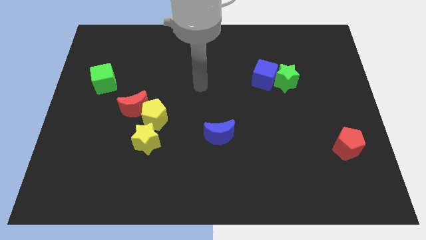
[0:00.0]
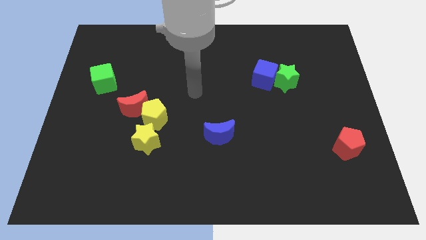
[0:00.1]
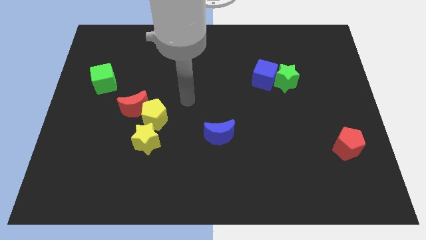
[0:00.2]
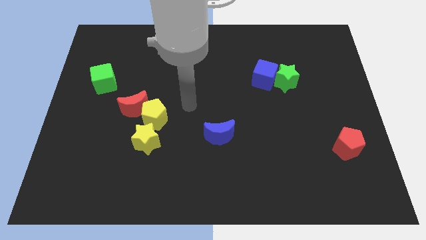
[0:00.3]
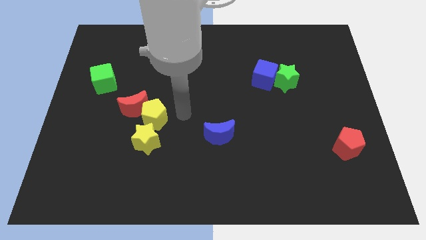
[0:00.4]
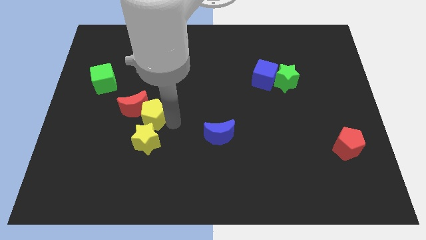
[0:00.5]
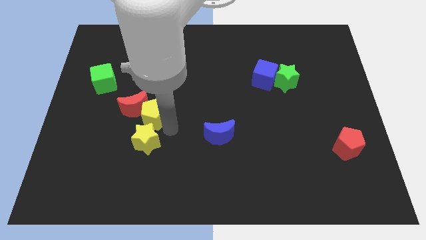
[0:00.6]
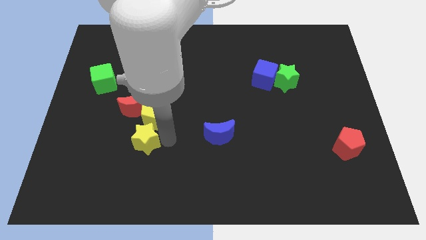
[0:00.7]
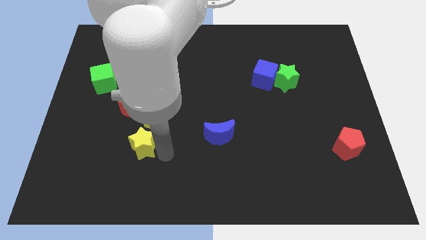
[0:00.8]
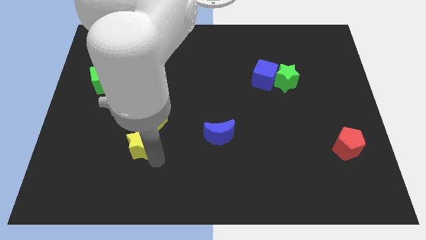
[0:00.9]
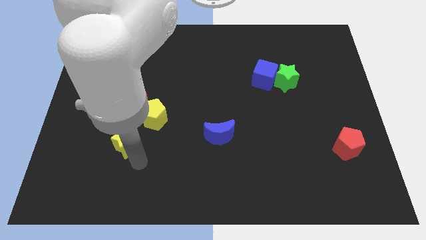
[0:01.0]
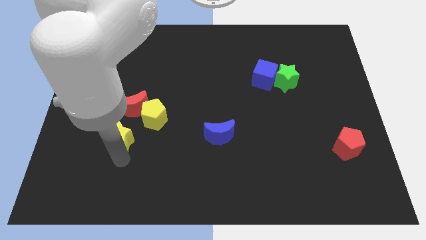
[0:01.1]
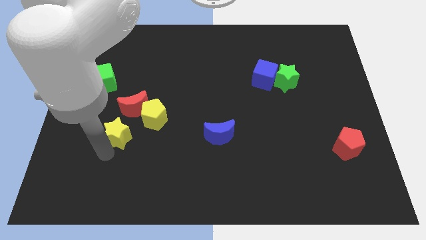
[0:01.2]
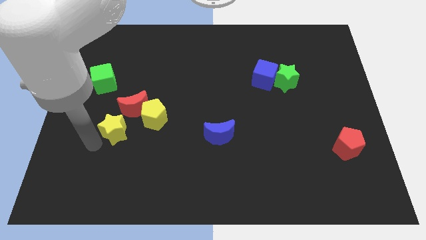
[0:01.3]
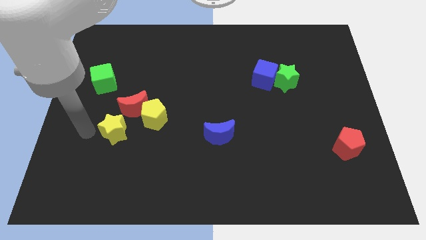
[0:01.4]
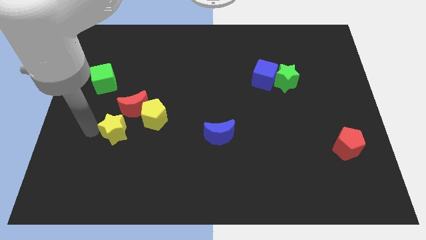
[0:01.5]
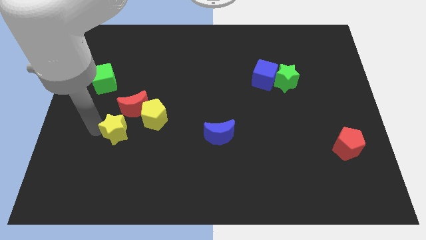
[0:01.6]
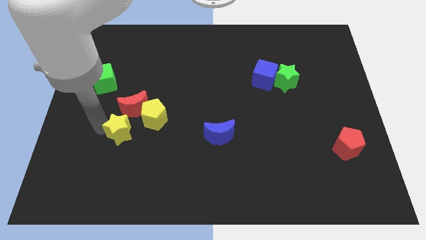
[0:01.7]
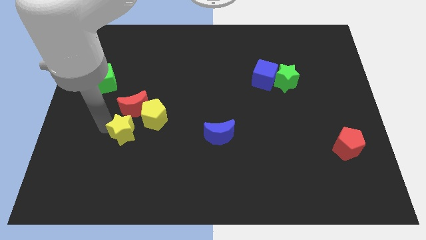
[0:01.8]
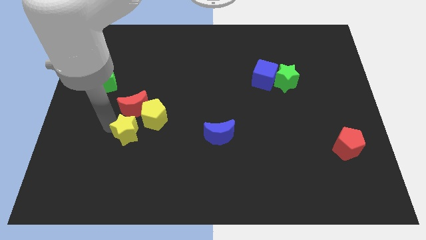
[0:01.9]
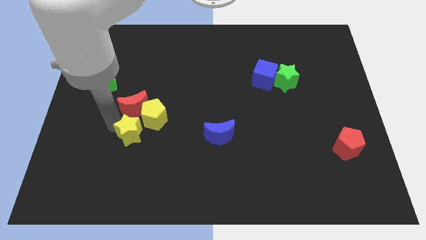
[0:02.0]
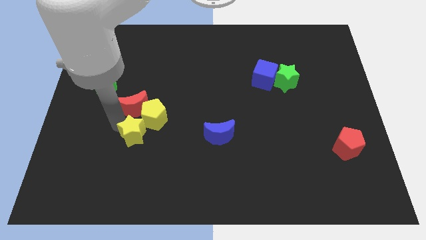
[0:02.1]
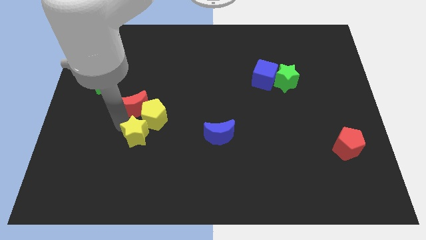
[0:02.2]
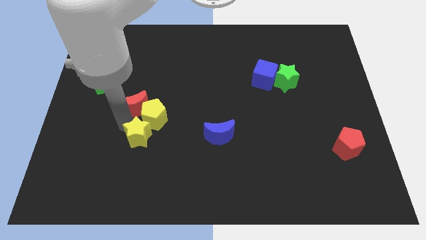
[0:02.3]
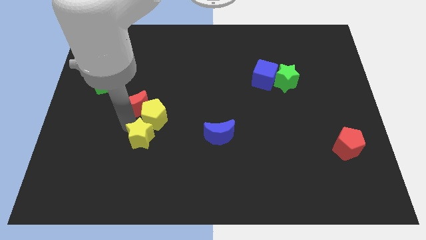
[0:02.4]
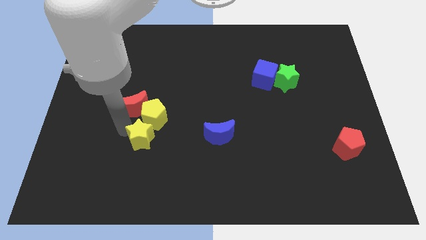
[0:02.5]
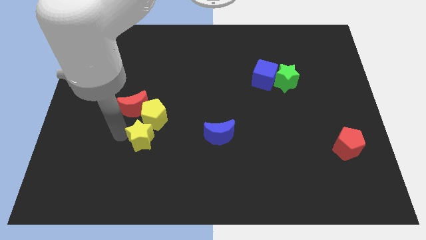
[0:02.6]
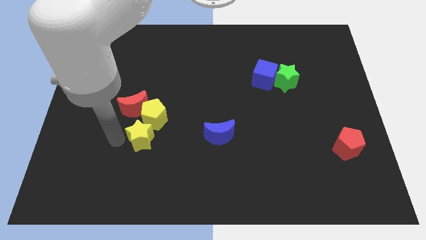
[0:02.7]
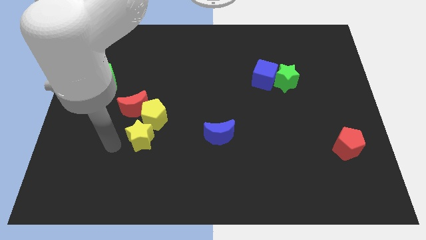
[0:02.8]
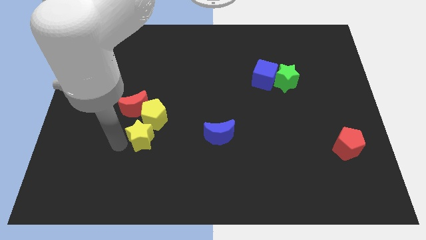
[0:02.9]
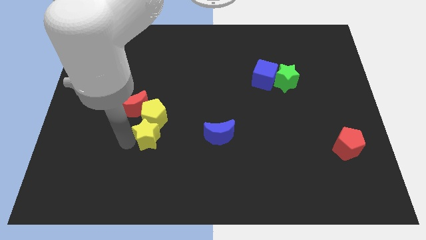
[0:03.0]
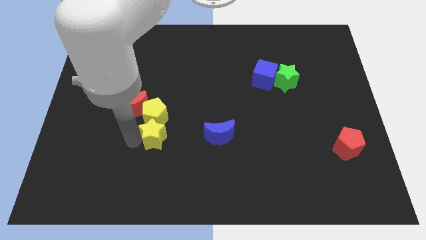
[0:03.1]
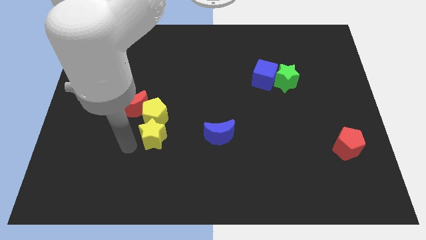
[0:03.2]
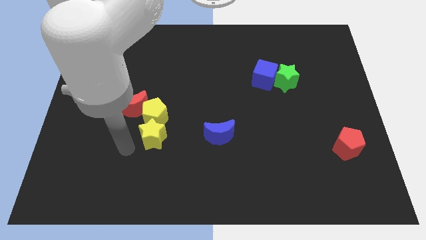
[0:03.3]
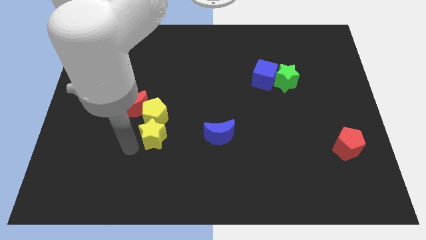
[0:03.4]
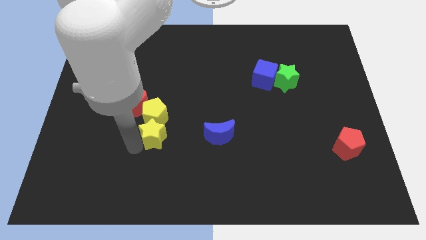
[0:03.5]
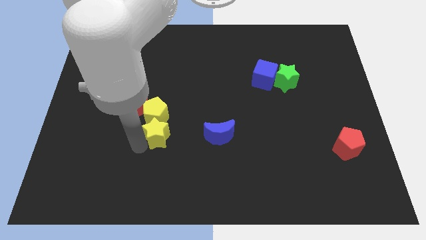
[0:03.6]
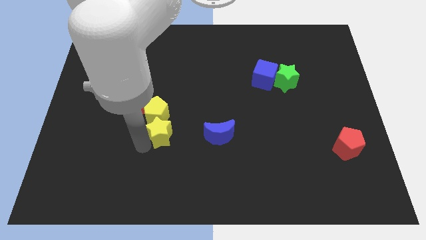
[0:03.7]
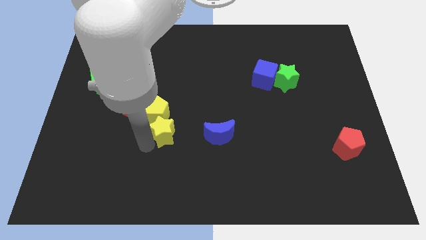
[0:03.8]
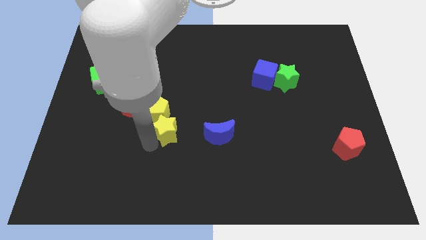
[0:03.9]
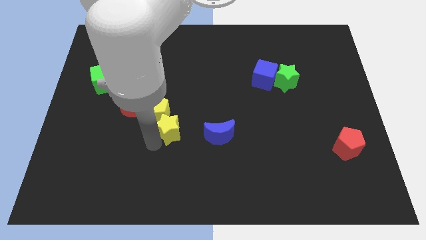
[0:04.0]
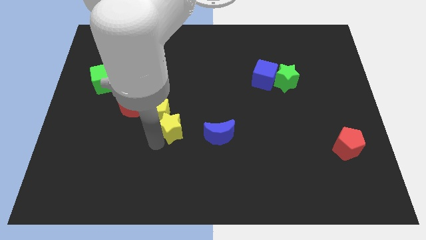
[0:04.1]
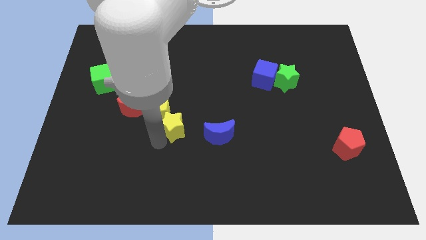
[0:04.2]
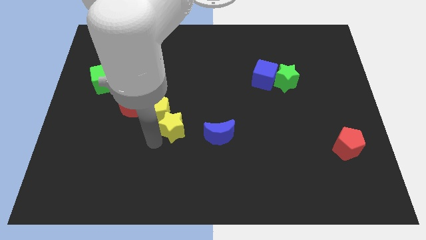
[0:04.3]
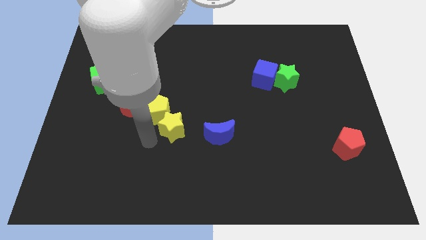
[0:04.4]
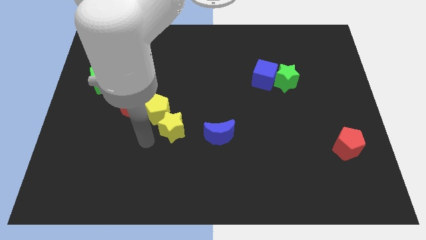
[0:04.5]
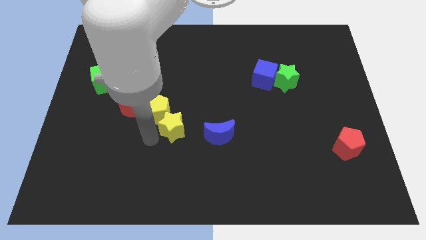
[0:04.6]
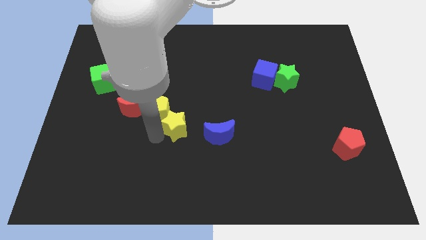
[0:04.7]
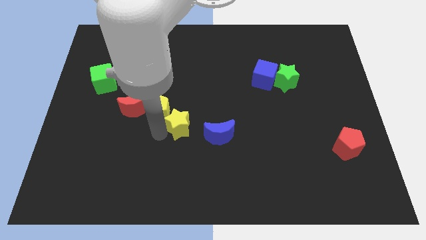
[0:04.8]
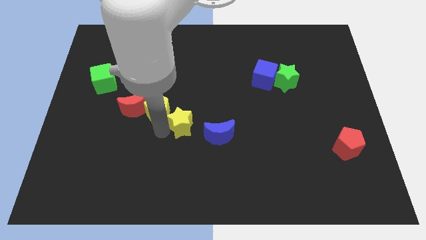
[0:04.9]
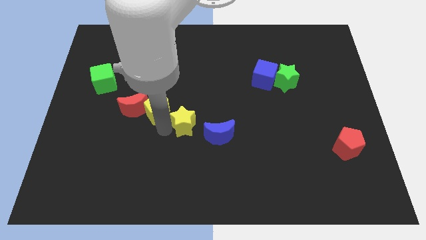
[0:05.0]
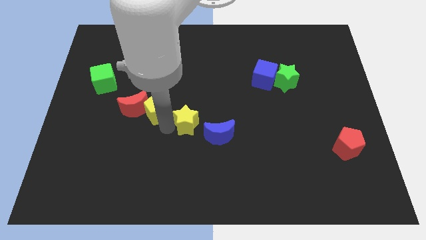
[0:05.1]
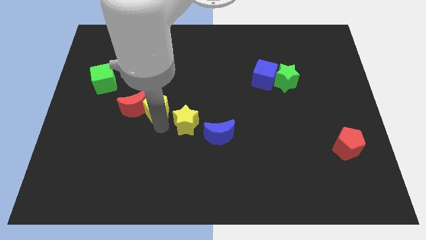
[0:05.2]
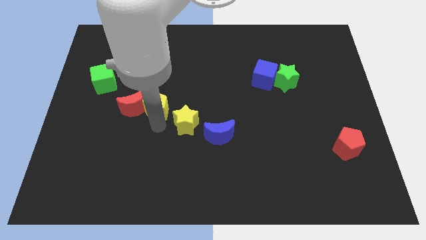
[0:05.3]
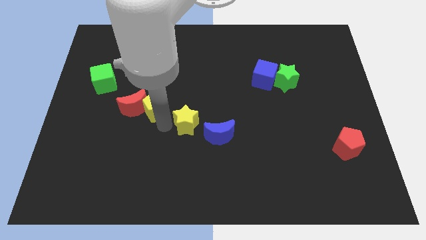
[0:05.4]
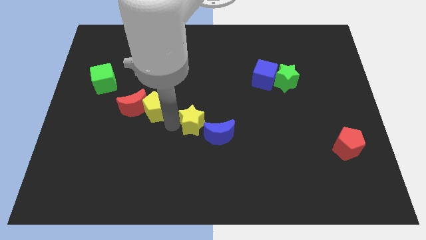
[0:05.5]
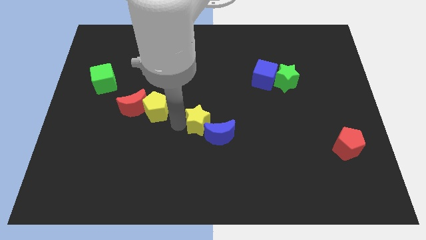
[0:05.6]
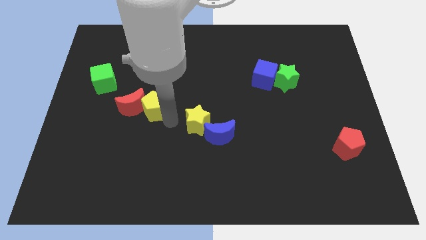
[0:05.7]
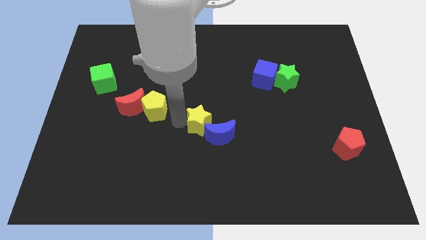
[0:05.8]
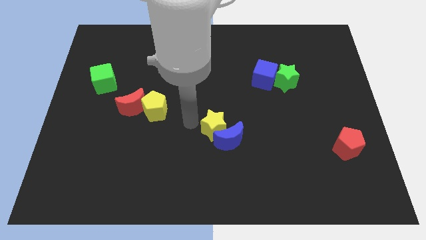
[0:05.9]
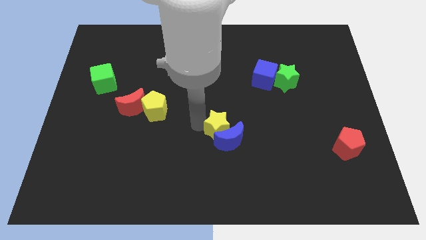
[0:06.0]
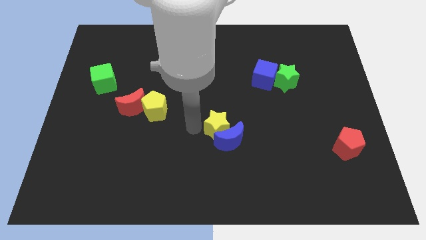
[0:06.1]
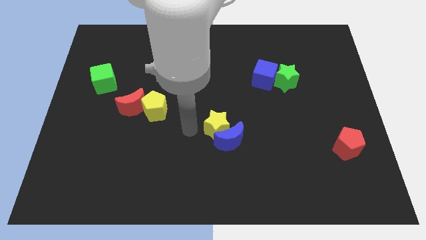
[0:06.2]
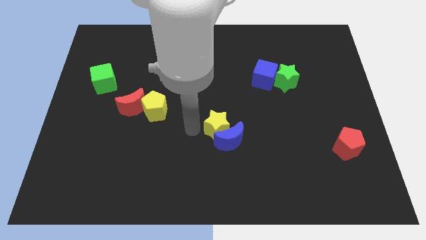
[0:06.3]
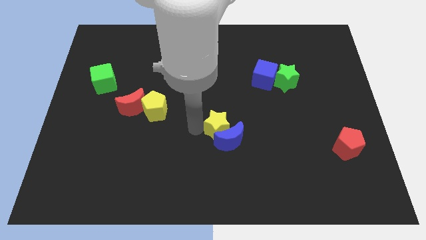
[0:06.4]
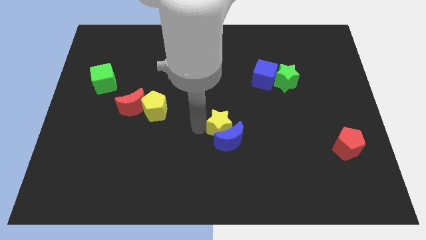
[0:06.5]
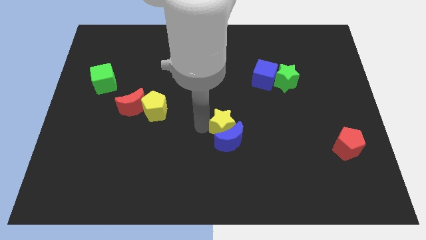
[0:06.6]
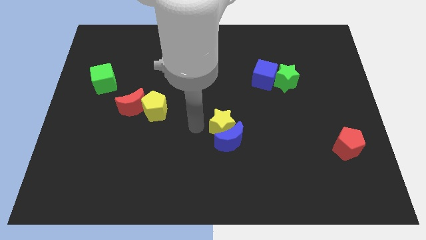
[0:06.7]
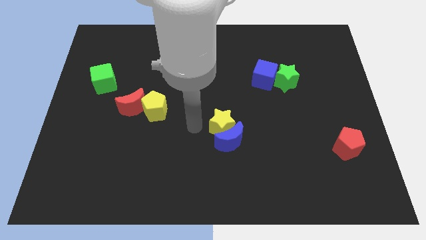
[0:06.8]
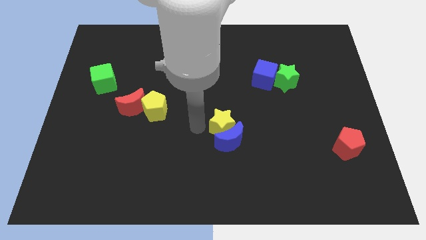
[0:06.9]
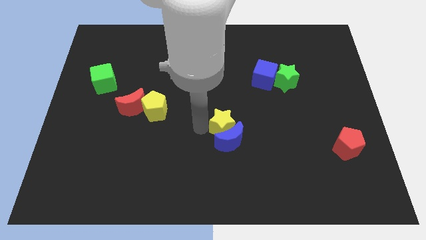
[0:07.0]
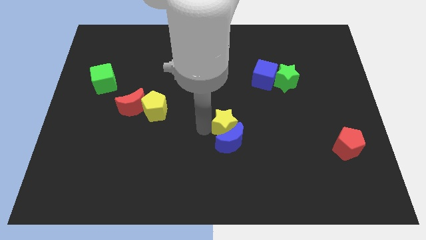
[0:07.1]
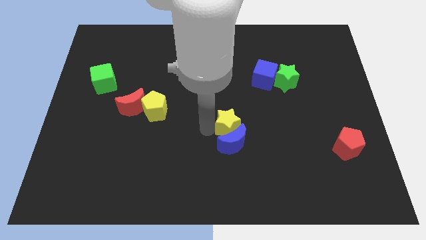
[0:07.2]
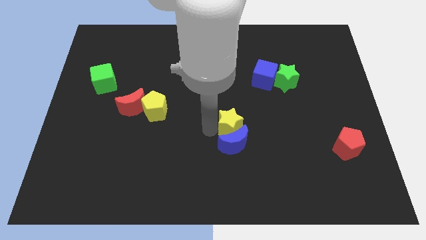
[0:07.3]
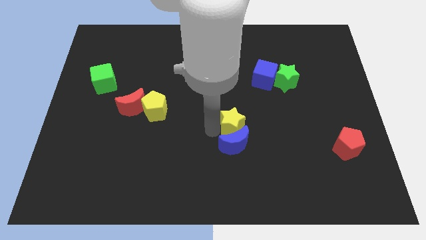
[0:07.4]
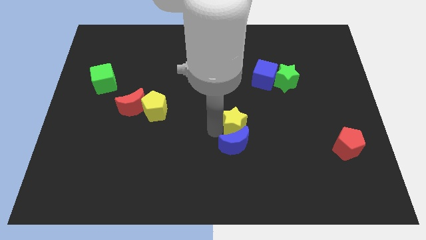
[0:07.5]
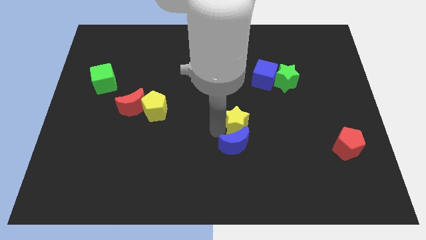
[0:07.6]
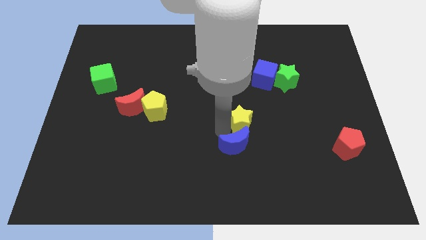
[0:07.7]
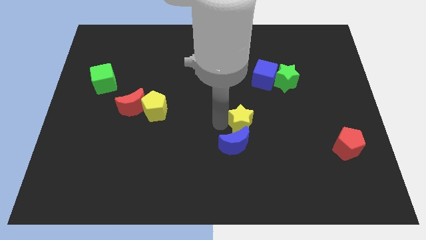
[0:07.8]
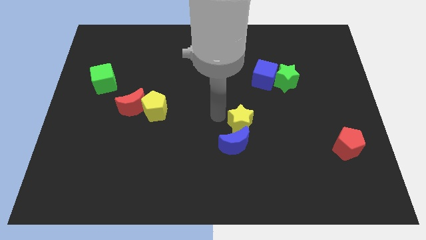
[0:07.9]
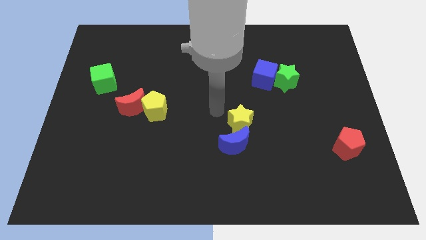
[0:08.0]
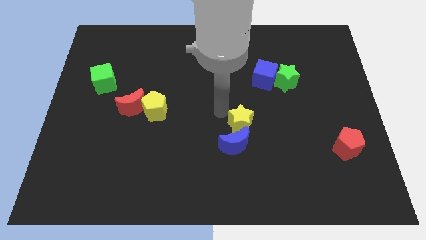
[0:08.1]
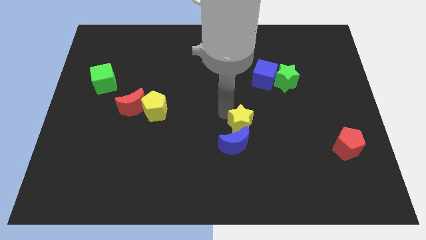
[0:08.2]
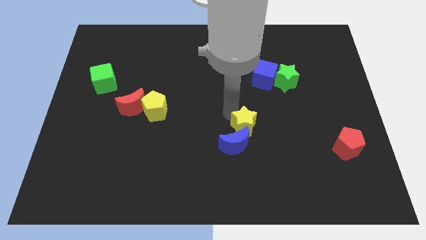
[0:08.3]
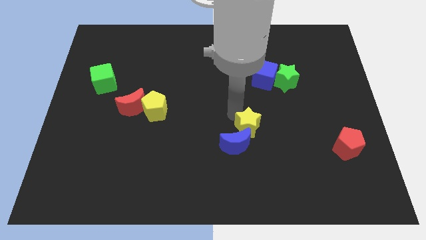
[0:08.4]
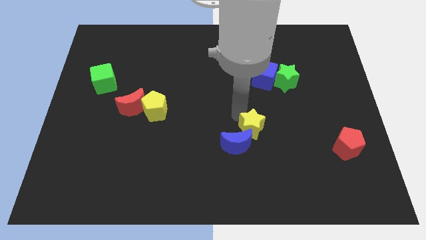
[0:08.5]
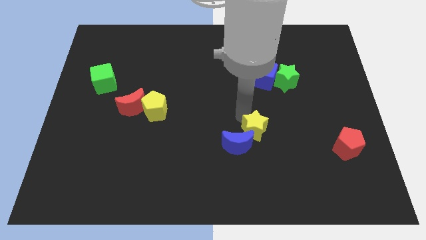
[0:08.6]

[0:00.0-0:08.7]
push the yellow star to the right of the blue moon
